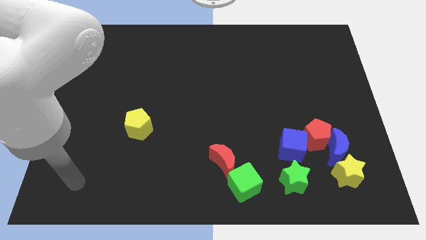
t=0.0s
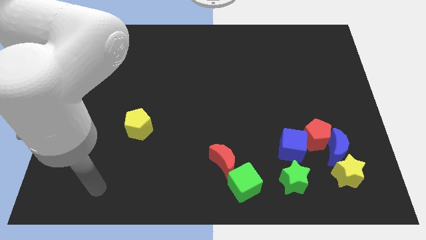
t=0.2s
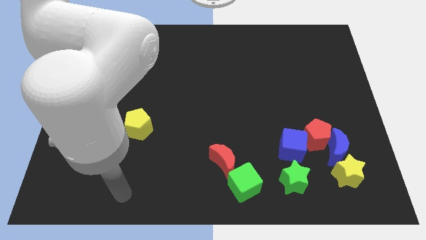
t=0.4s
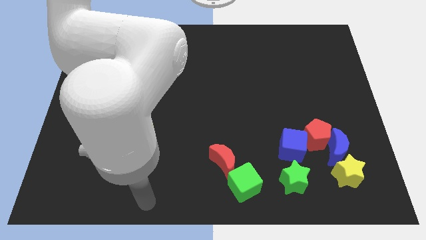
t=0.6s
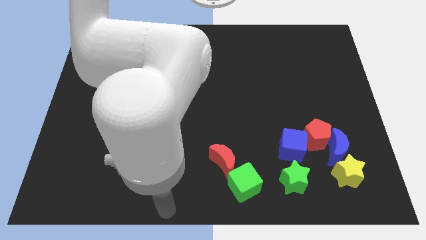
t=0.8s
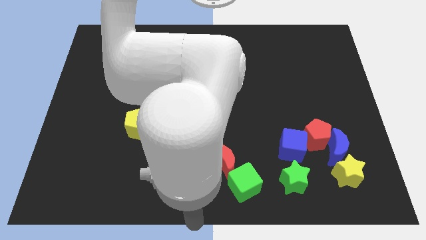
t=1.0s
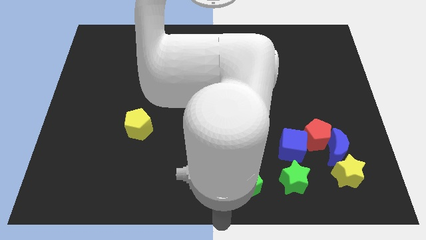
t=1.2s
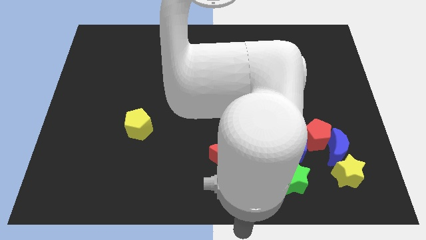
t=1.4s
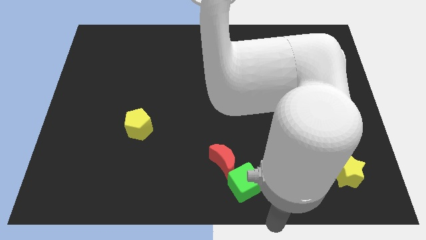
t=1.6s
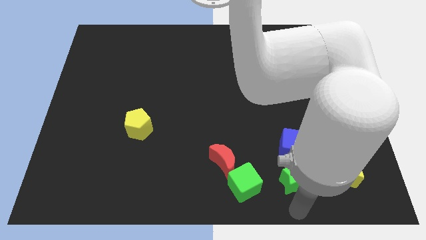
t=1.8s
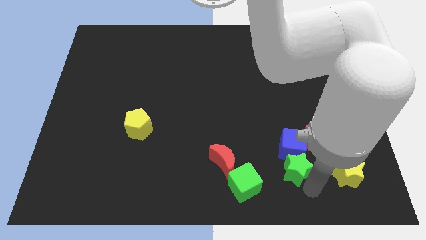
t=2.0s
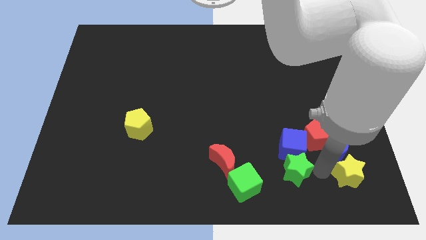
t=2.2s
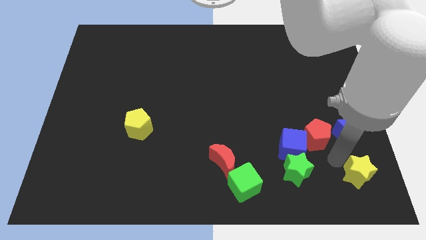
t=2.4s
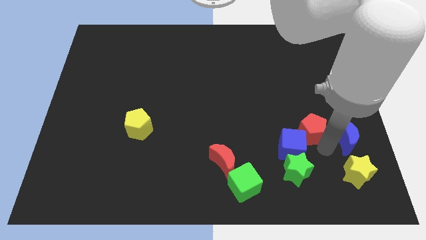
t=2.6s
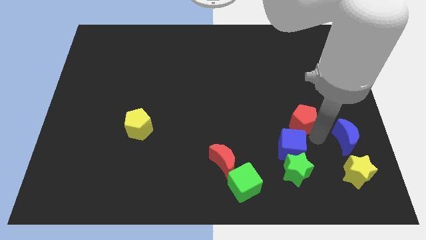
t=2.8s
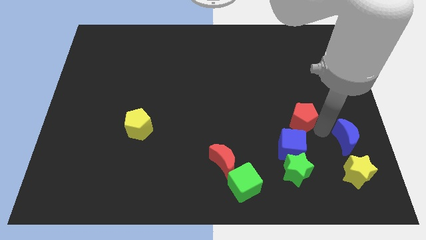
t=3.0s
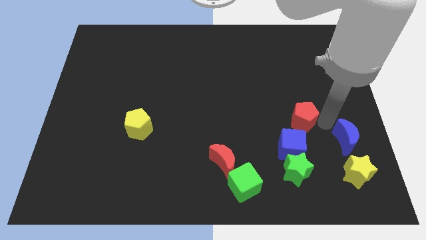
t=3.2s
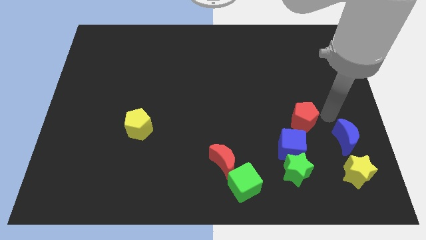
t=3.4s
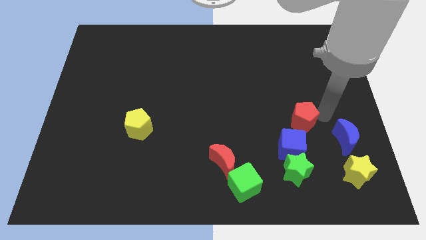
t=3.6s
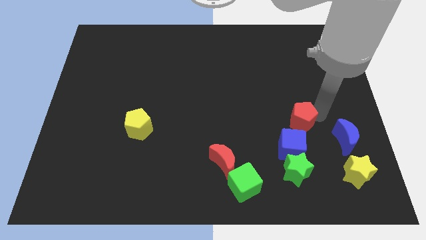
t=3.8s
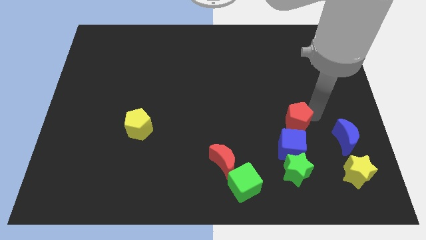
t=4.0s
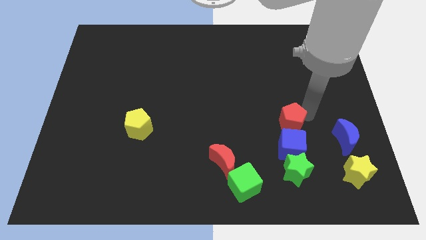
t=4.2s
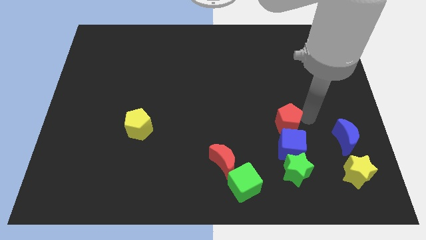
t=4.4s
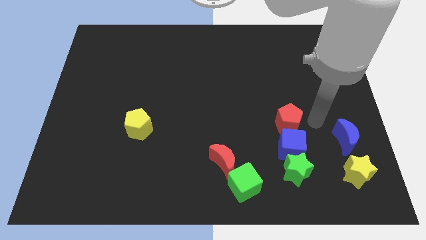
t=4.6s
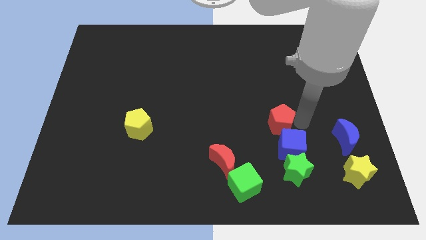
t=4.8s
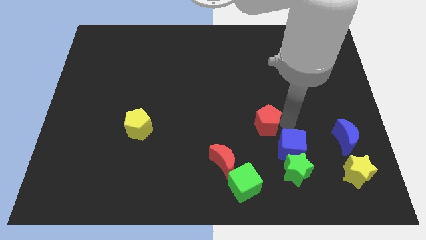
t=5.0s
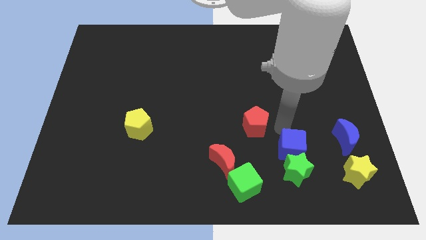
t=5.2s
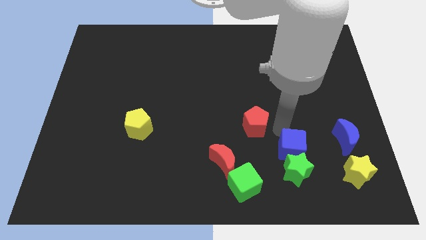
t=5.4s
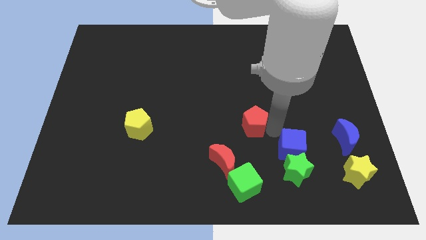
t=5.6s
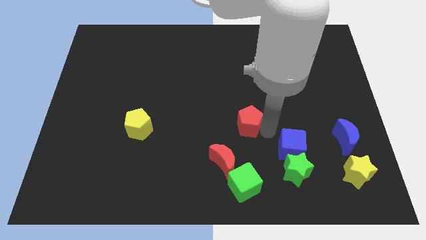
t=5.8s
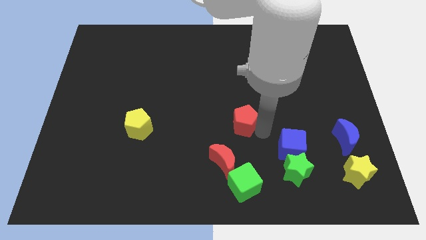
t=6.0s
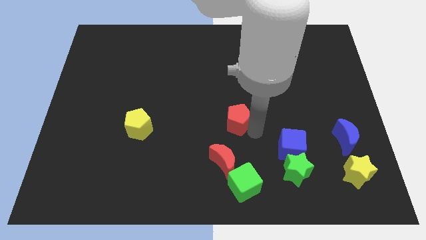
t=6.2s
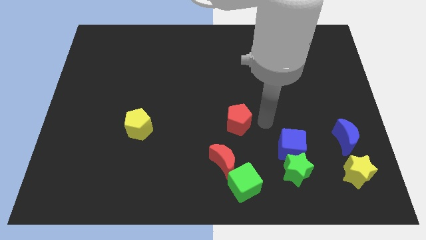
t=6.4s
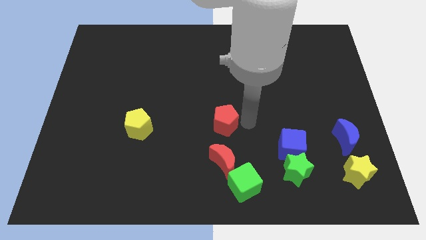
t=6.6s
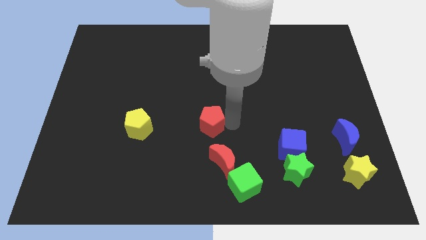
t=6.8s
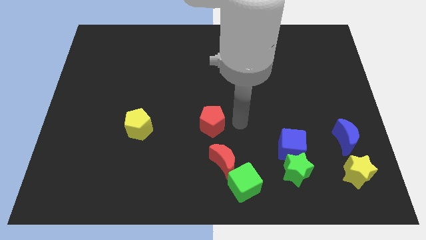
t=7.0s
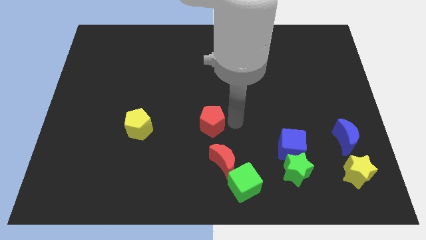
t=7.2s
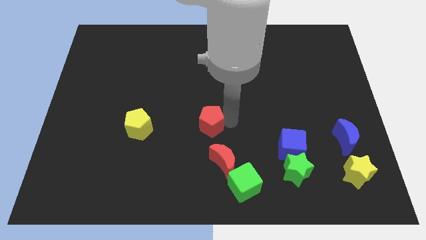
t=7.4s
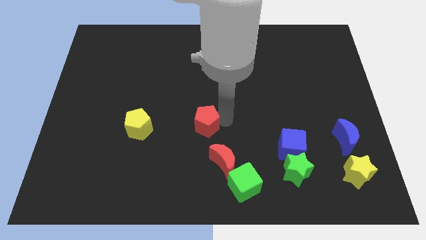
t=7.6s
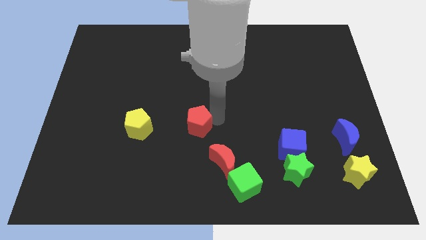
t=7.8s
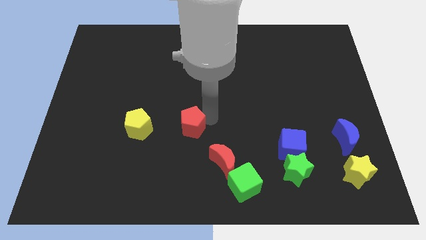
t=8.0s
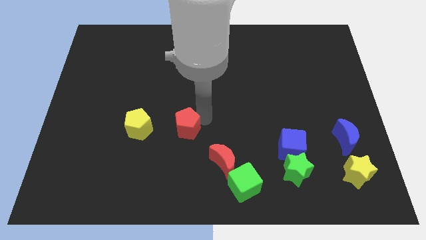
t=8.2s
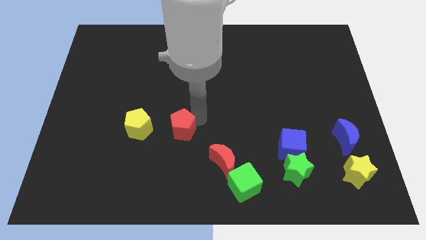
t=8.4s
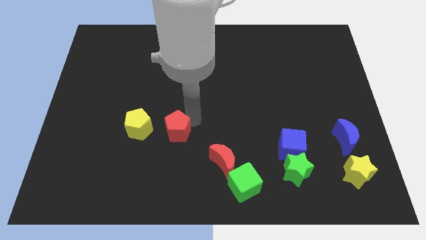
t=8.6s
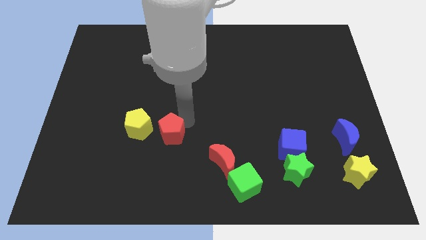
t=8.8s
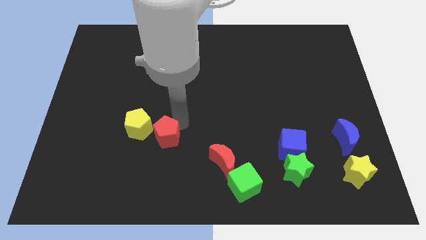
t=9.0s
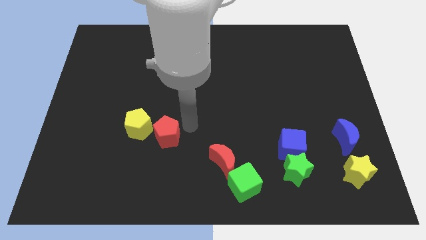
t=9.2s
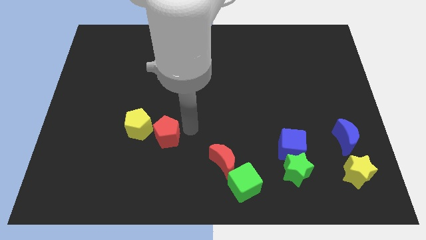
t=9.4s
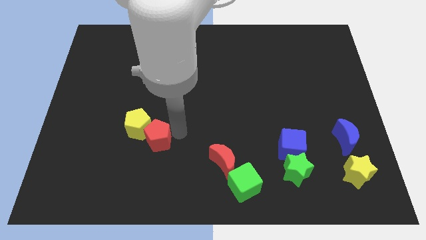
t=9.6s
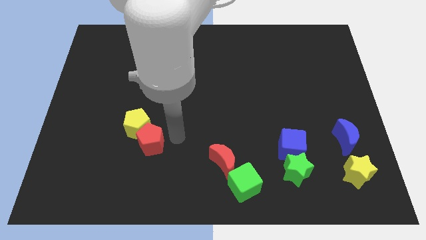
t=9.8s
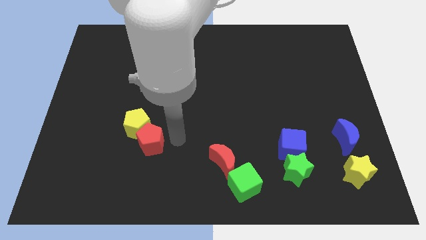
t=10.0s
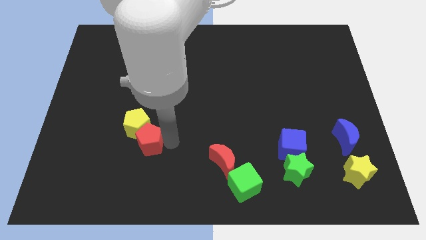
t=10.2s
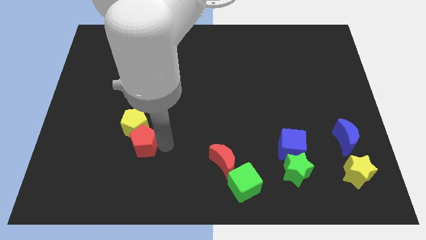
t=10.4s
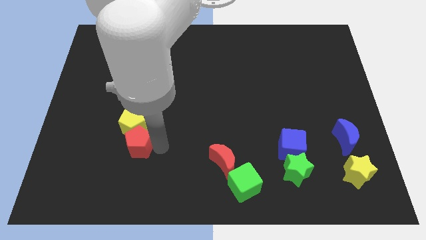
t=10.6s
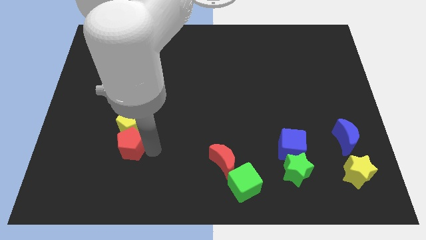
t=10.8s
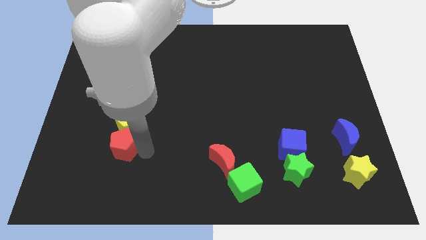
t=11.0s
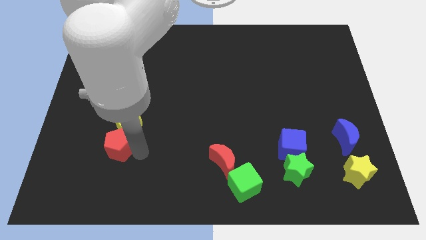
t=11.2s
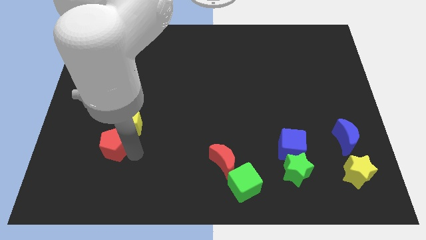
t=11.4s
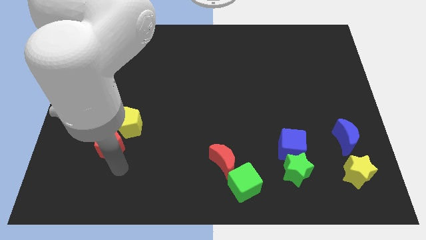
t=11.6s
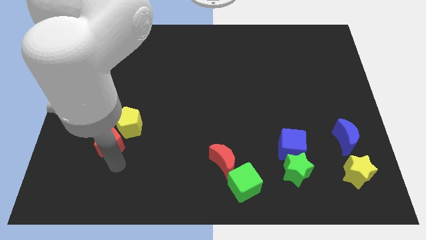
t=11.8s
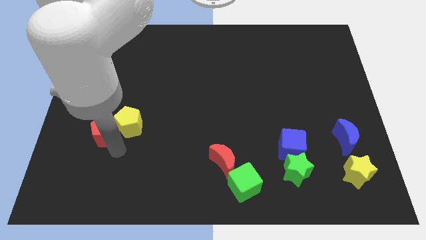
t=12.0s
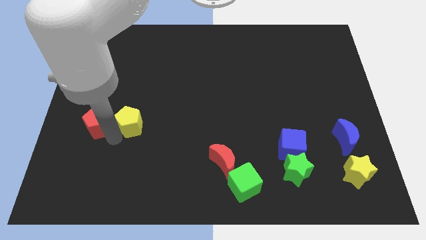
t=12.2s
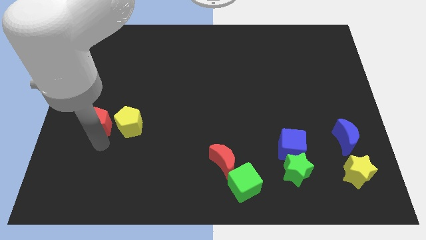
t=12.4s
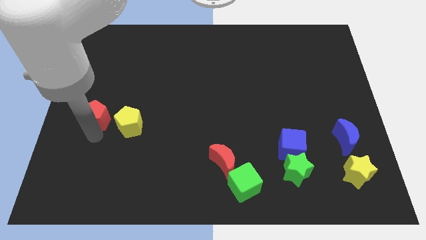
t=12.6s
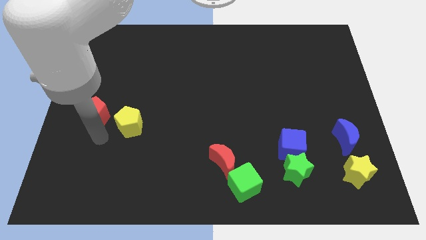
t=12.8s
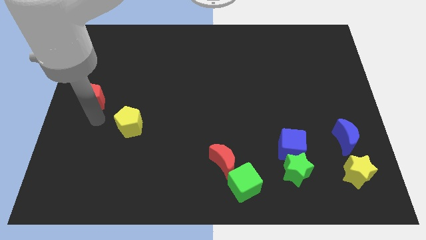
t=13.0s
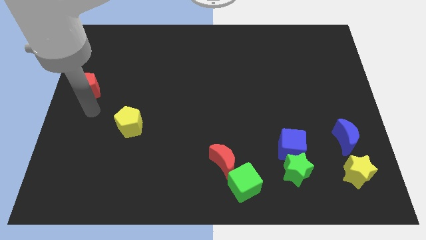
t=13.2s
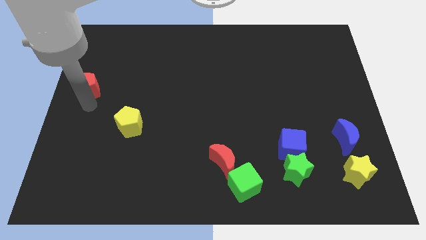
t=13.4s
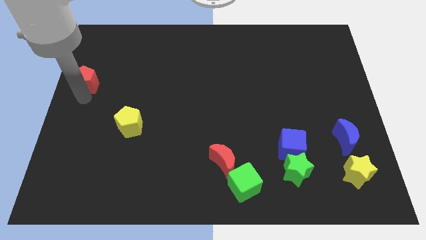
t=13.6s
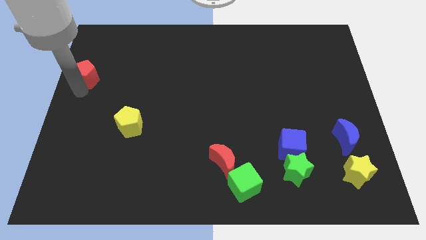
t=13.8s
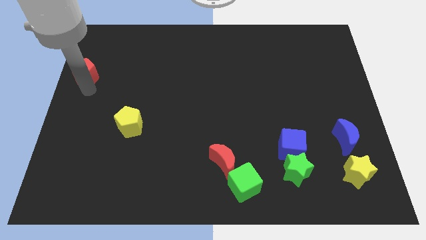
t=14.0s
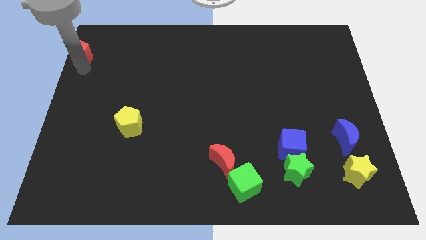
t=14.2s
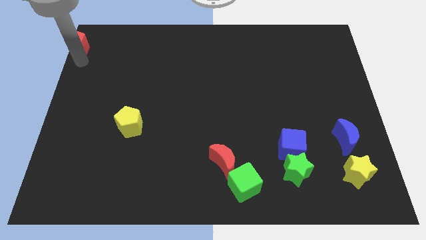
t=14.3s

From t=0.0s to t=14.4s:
push the red pentagon to the top left of the board

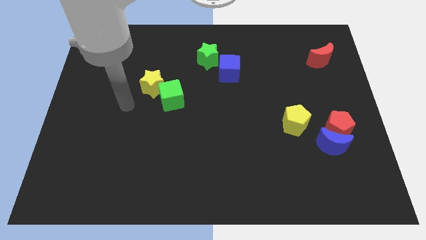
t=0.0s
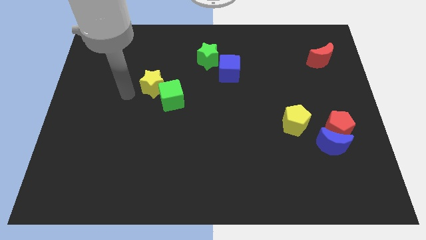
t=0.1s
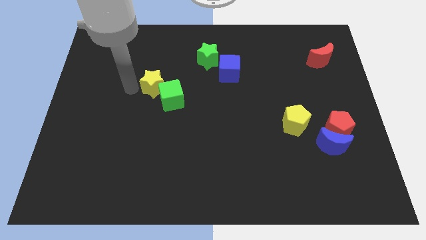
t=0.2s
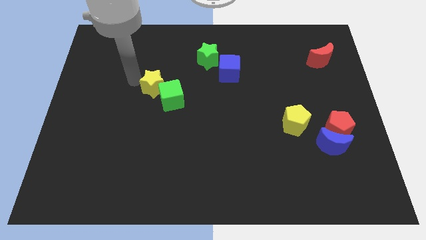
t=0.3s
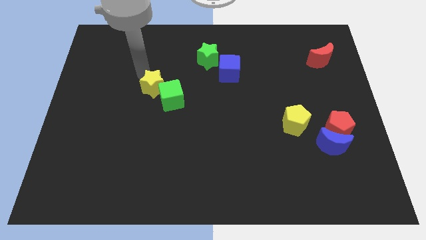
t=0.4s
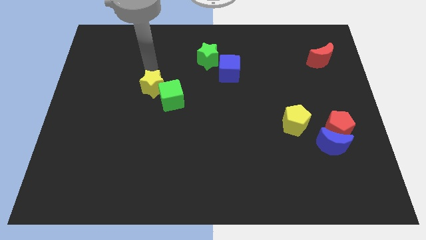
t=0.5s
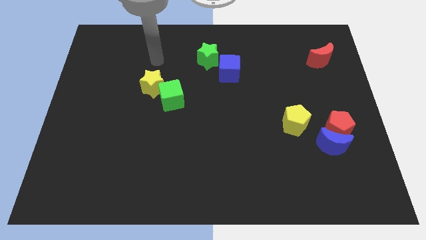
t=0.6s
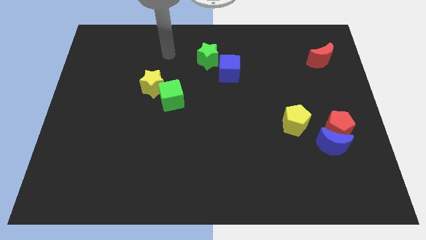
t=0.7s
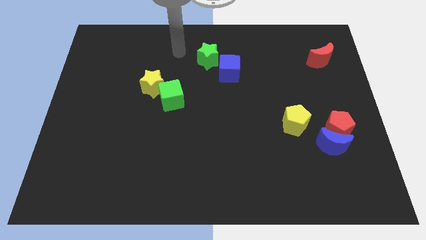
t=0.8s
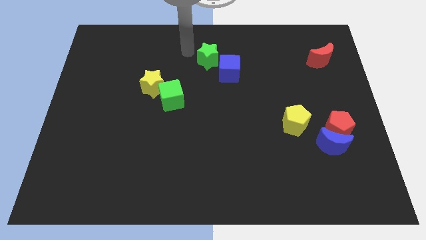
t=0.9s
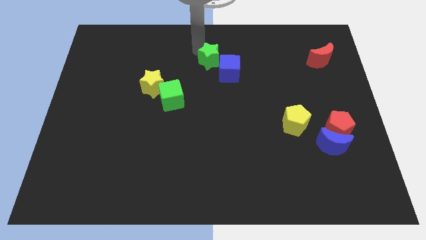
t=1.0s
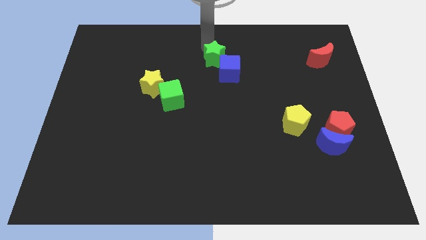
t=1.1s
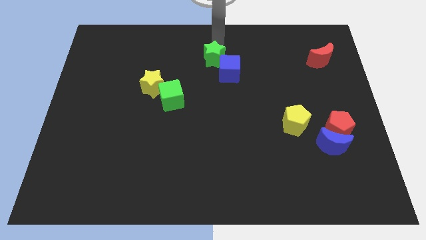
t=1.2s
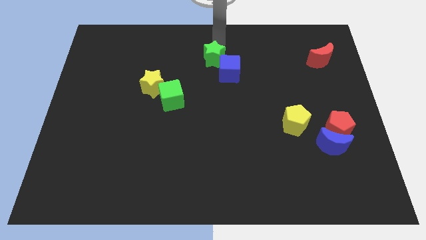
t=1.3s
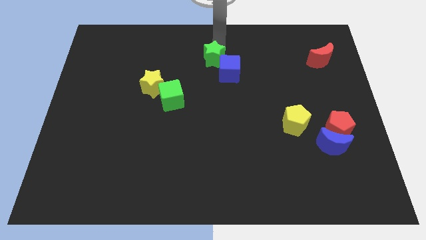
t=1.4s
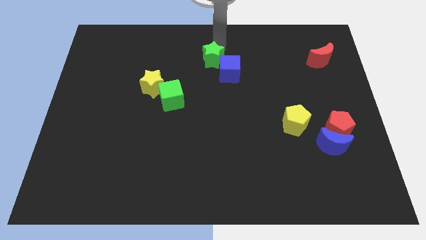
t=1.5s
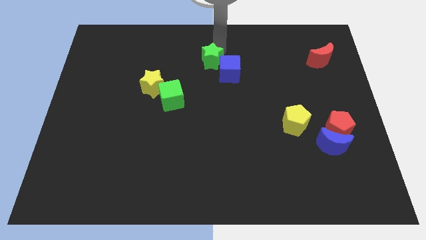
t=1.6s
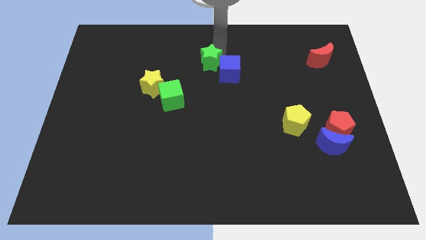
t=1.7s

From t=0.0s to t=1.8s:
put the green star to the center of the board
